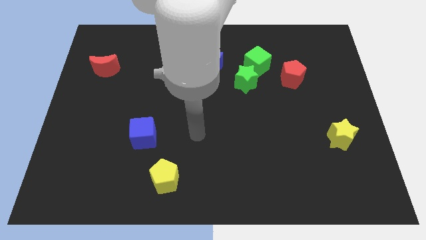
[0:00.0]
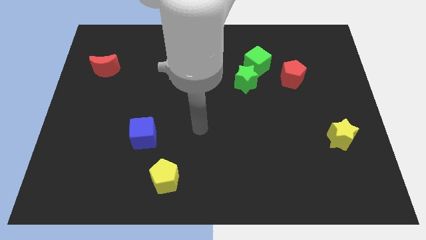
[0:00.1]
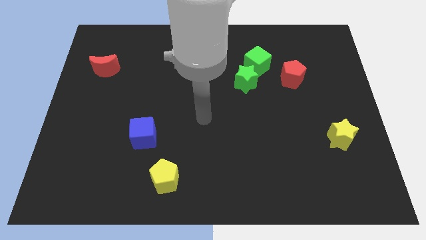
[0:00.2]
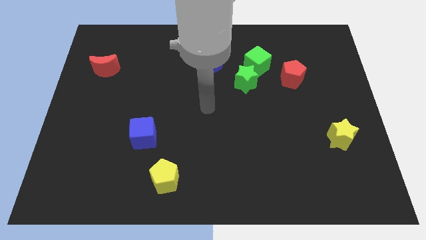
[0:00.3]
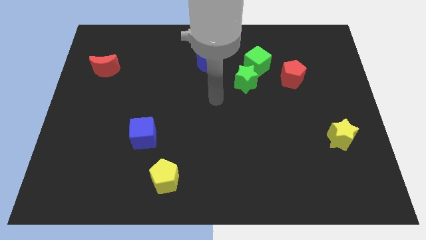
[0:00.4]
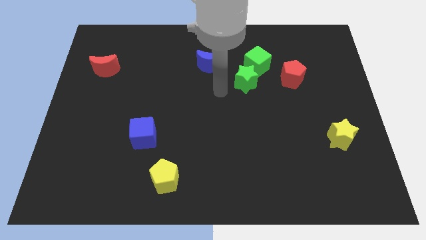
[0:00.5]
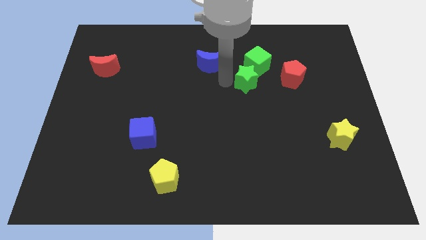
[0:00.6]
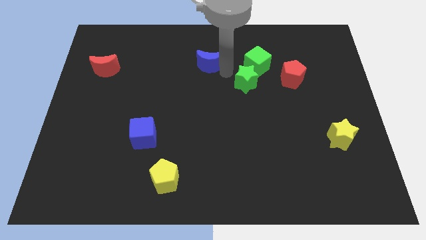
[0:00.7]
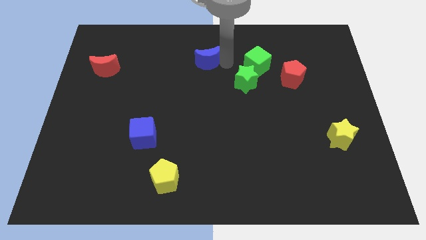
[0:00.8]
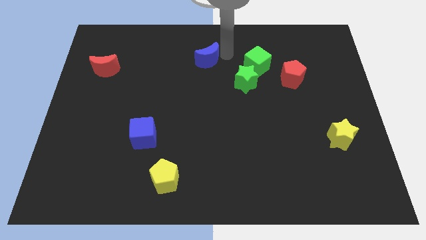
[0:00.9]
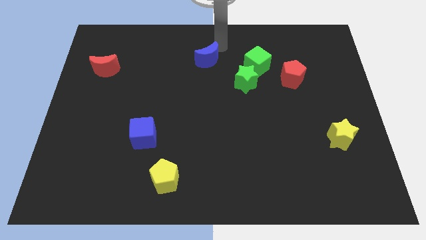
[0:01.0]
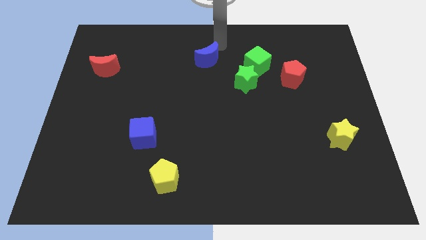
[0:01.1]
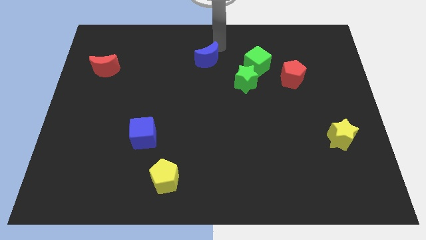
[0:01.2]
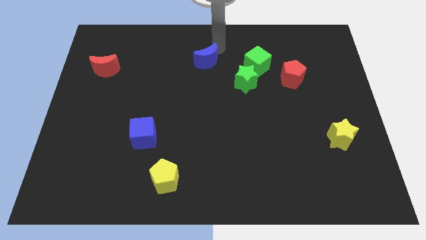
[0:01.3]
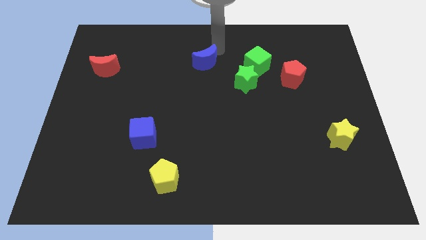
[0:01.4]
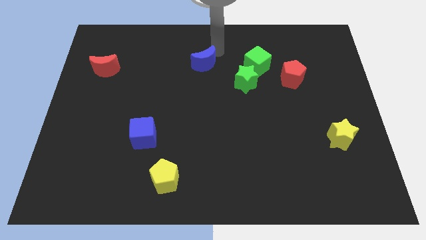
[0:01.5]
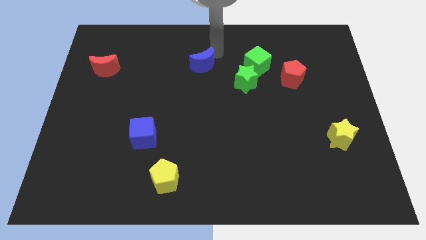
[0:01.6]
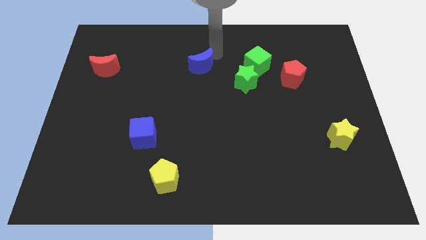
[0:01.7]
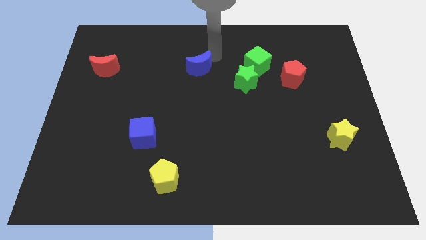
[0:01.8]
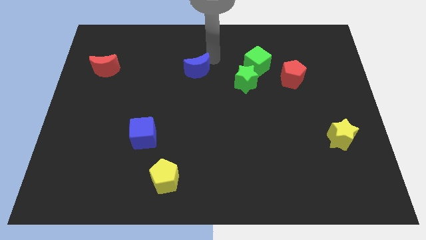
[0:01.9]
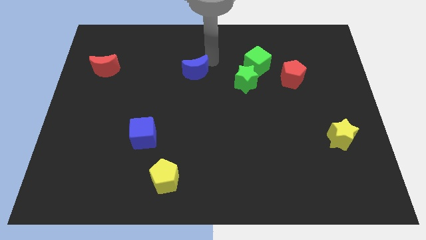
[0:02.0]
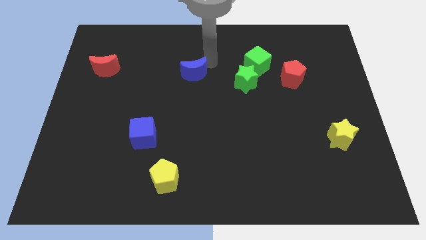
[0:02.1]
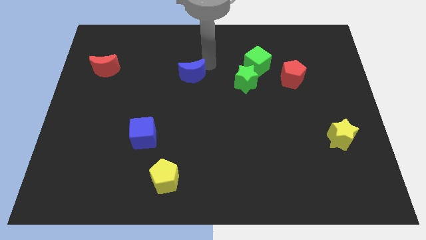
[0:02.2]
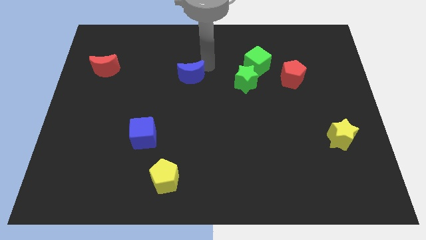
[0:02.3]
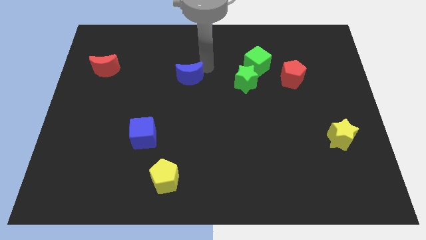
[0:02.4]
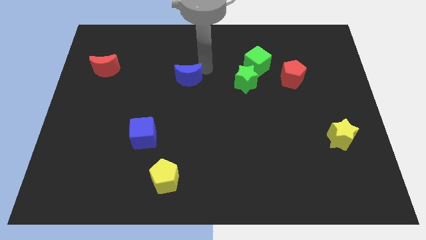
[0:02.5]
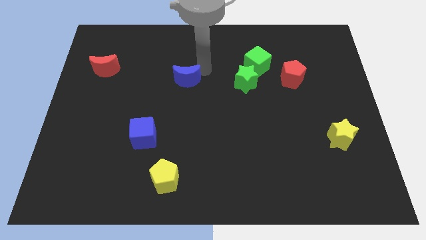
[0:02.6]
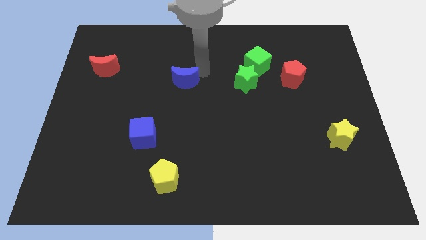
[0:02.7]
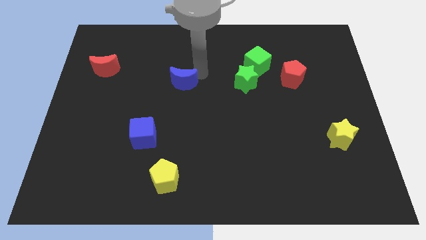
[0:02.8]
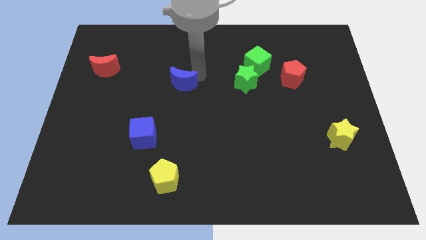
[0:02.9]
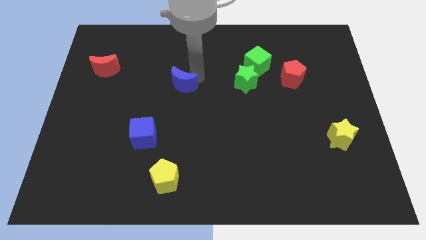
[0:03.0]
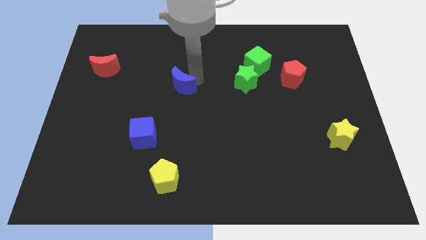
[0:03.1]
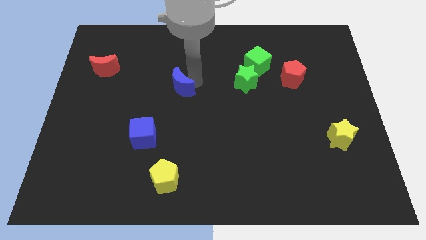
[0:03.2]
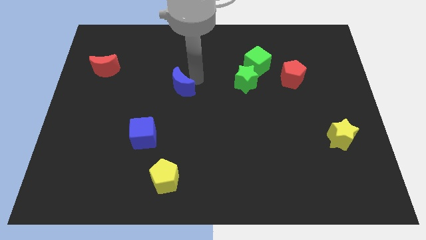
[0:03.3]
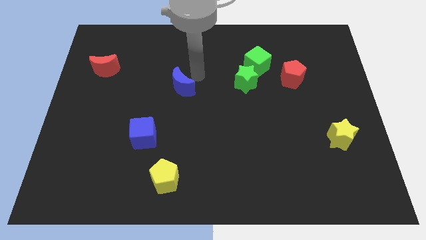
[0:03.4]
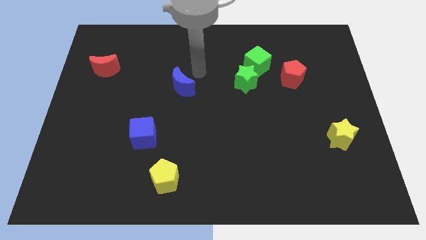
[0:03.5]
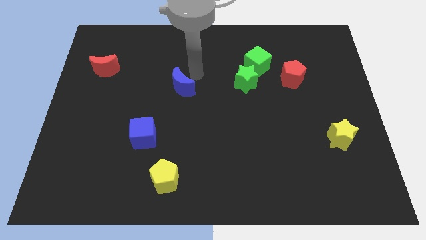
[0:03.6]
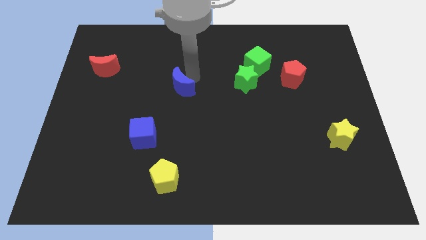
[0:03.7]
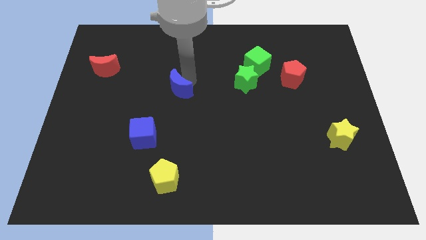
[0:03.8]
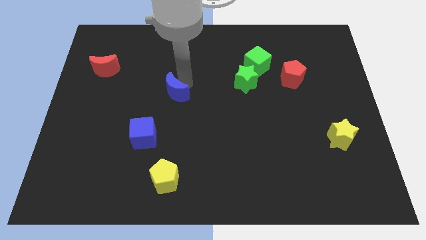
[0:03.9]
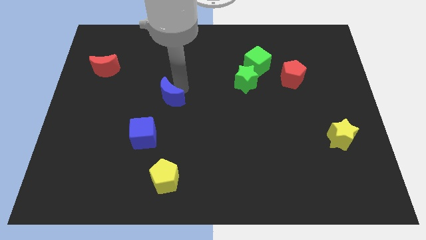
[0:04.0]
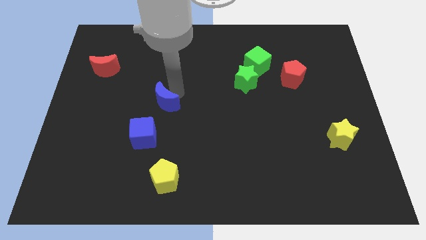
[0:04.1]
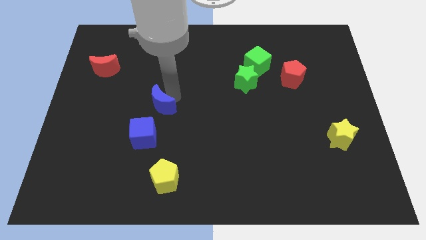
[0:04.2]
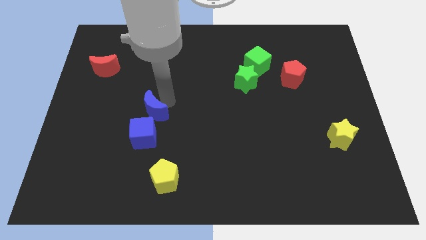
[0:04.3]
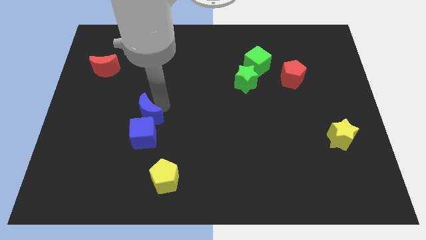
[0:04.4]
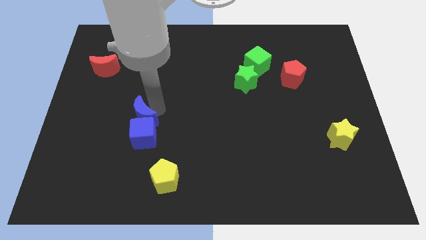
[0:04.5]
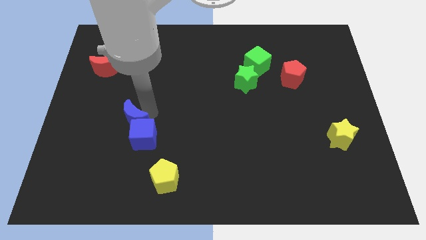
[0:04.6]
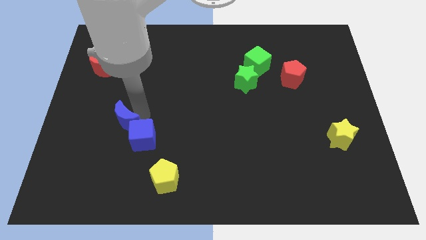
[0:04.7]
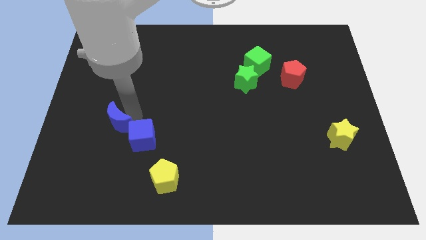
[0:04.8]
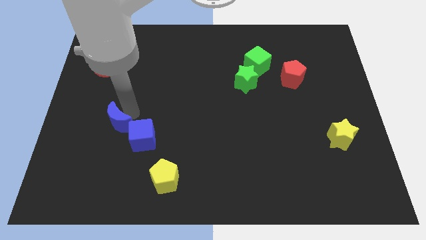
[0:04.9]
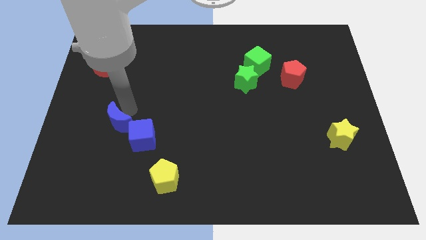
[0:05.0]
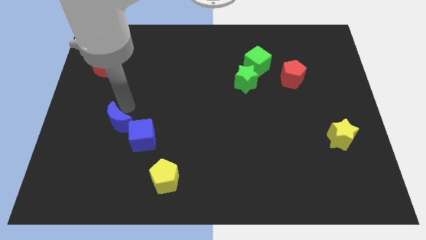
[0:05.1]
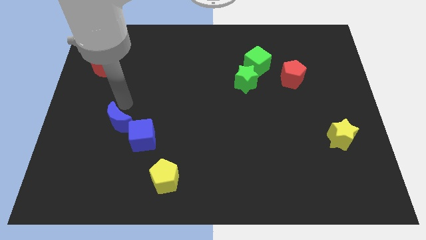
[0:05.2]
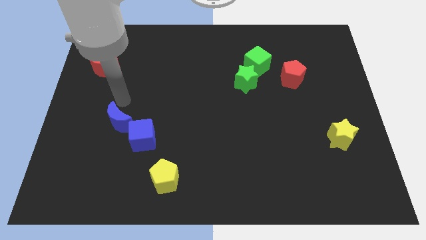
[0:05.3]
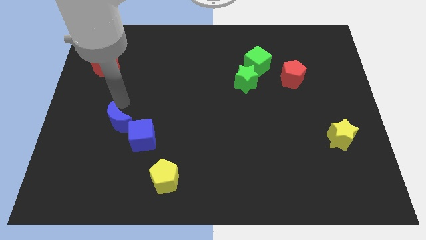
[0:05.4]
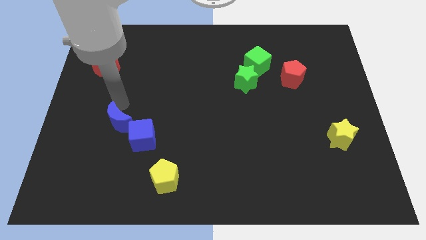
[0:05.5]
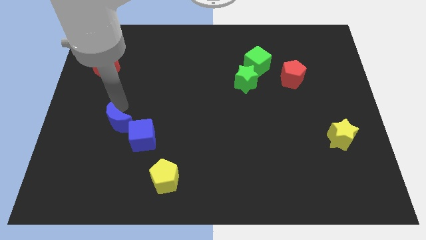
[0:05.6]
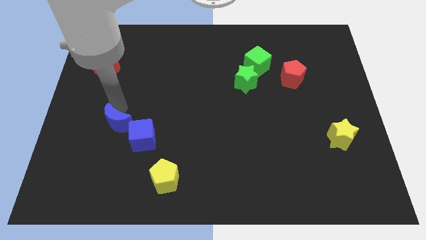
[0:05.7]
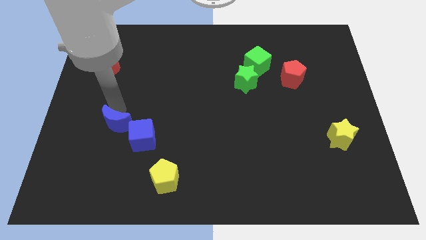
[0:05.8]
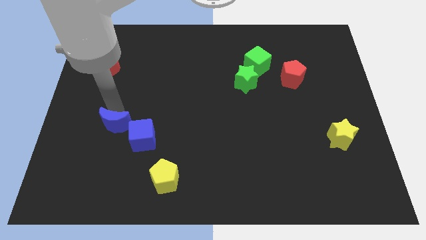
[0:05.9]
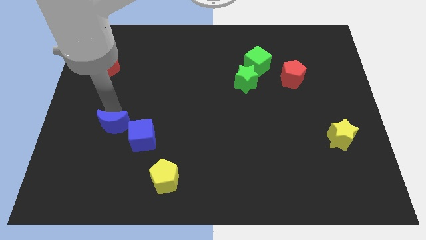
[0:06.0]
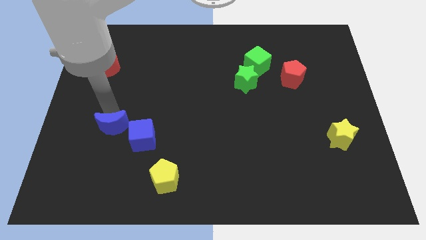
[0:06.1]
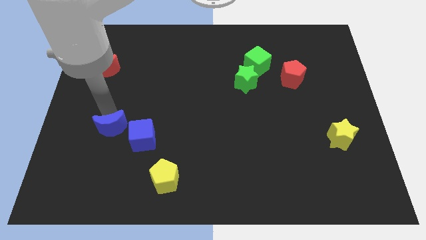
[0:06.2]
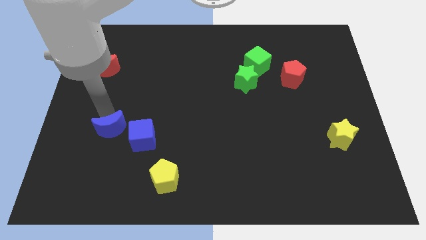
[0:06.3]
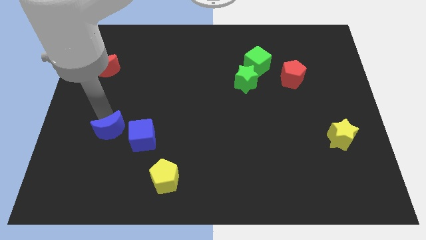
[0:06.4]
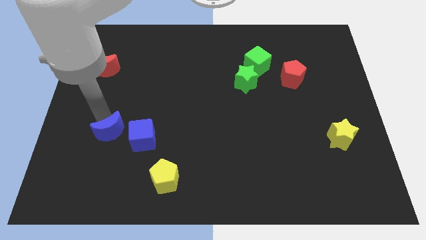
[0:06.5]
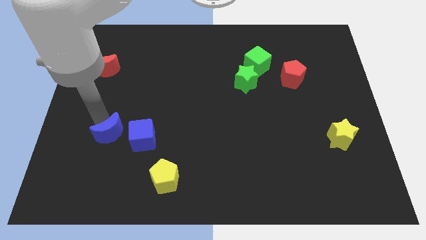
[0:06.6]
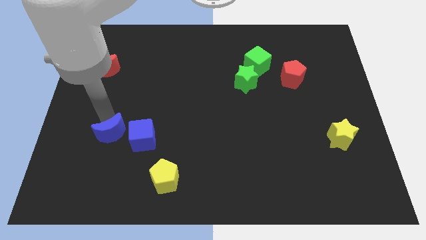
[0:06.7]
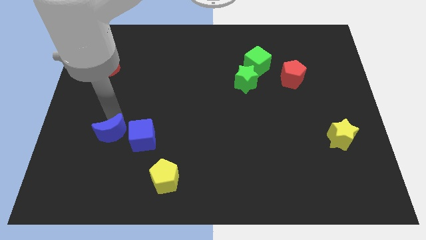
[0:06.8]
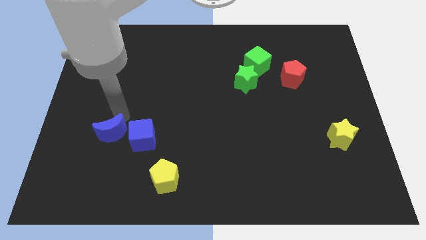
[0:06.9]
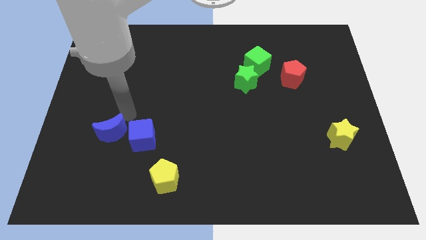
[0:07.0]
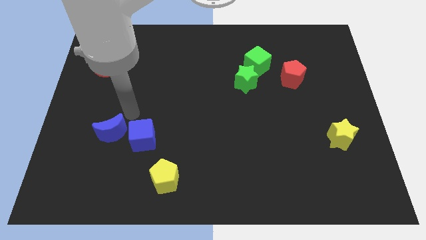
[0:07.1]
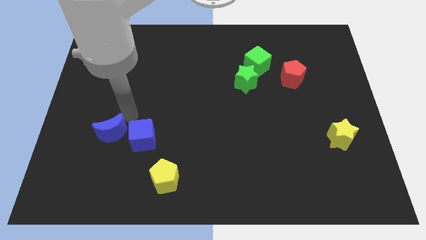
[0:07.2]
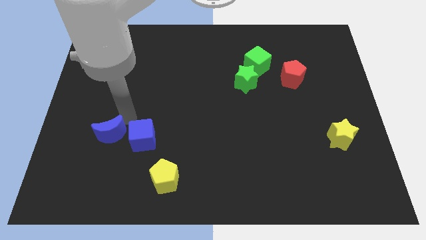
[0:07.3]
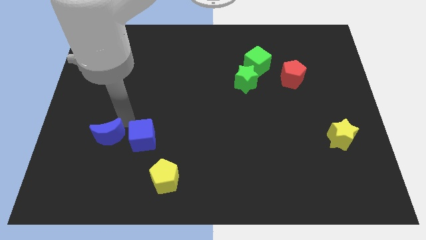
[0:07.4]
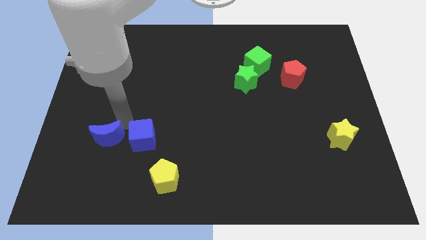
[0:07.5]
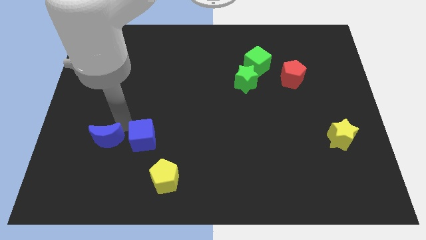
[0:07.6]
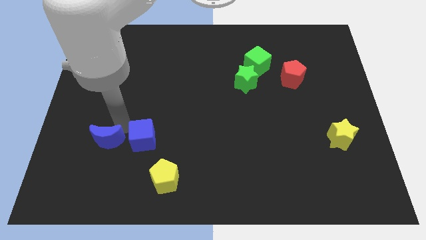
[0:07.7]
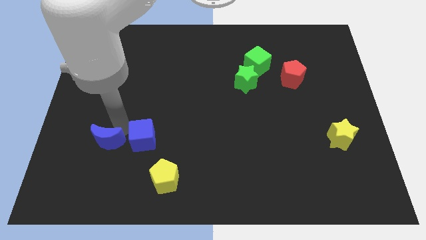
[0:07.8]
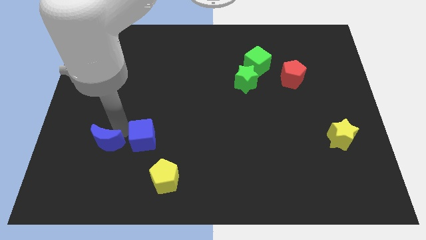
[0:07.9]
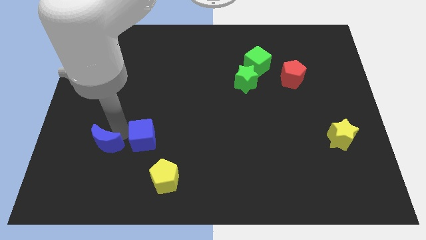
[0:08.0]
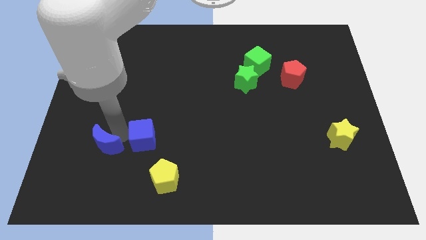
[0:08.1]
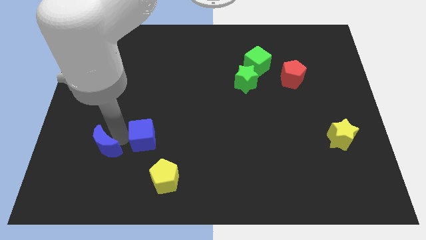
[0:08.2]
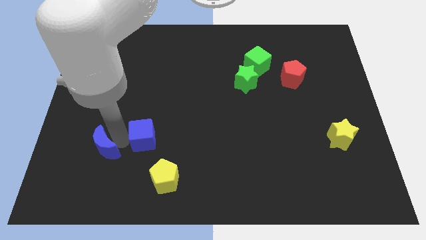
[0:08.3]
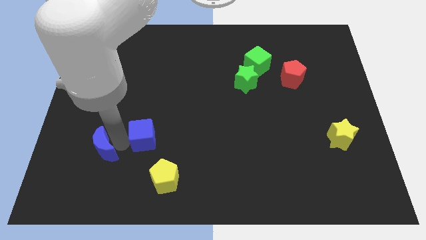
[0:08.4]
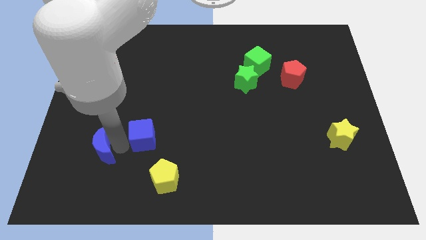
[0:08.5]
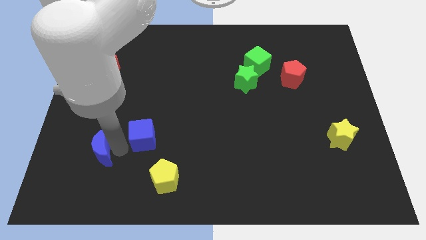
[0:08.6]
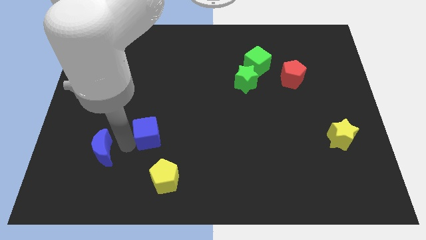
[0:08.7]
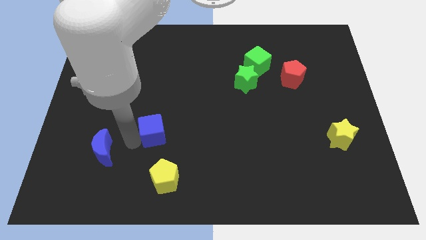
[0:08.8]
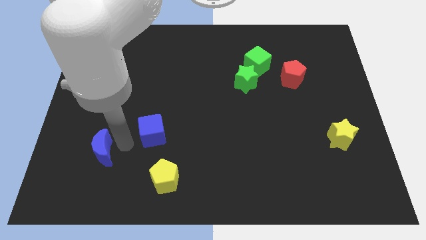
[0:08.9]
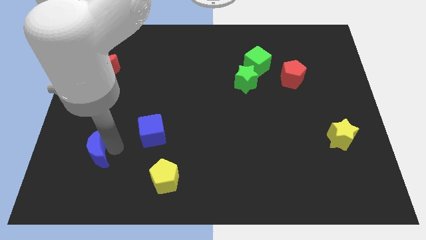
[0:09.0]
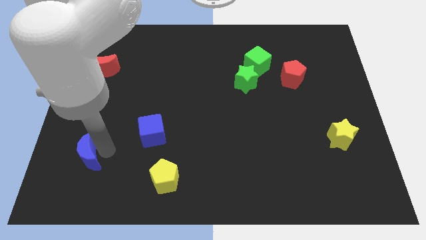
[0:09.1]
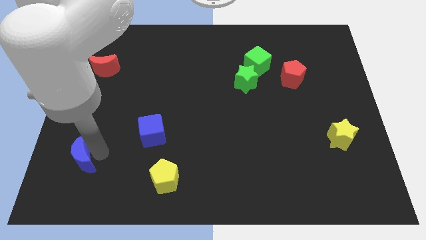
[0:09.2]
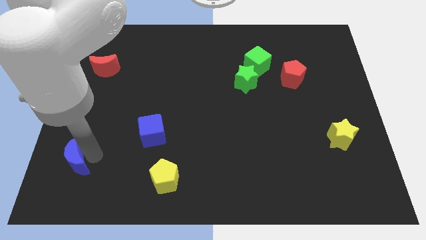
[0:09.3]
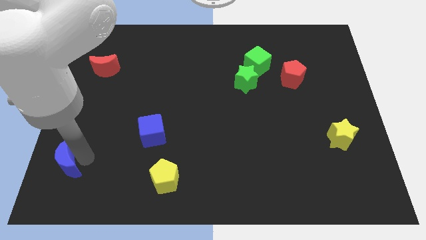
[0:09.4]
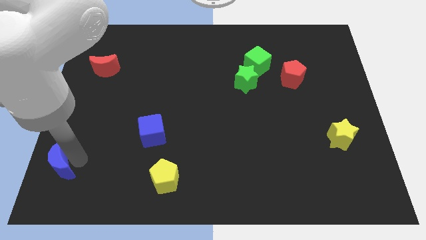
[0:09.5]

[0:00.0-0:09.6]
slide the blue moon to the bottom left of the board
